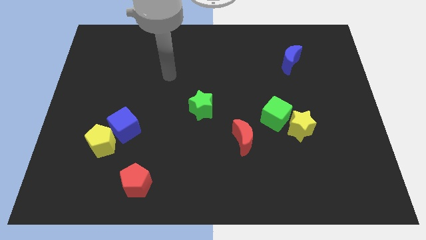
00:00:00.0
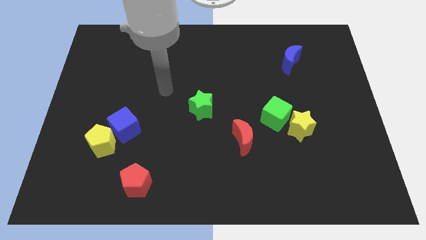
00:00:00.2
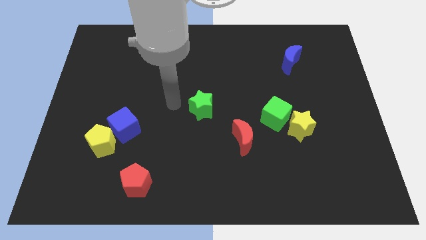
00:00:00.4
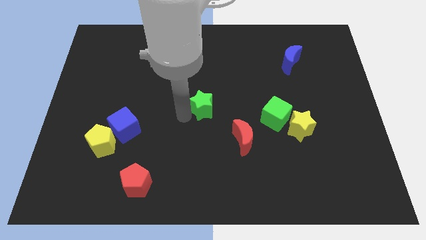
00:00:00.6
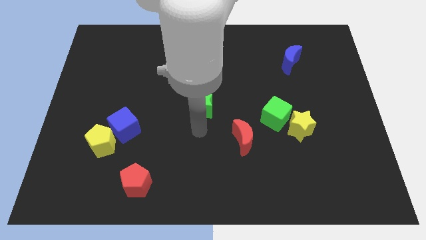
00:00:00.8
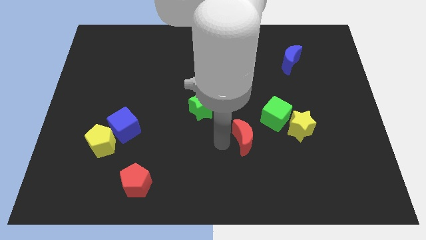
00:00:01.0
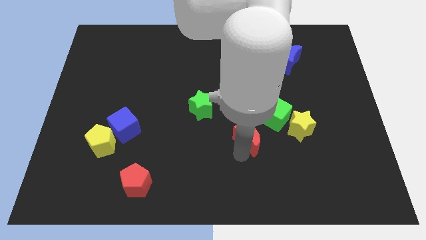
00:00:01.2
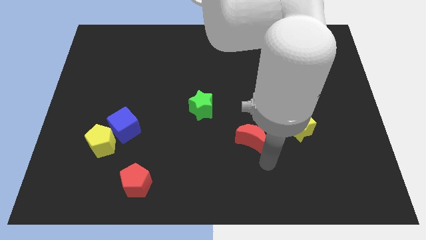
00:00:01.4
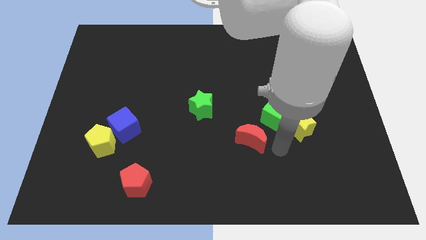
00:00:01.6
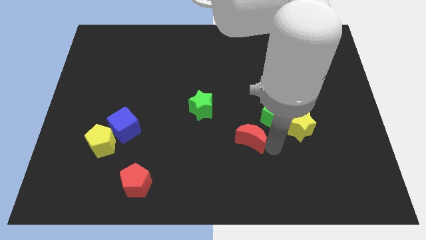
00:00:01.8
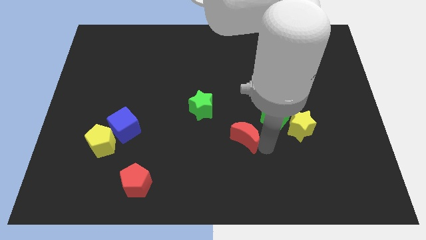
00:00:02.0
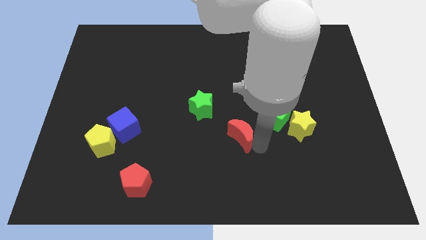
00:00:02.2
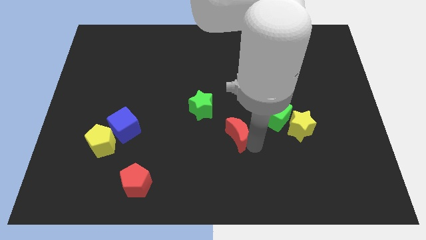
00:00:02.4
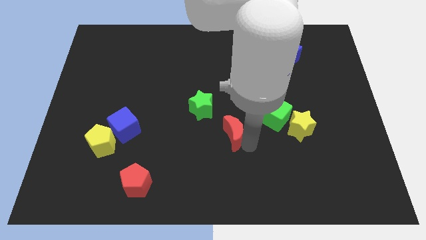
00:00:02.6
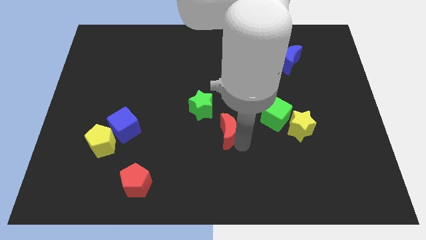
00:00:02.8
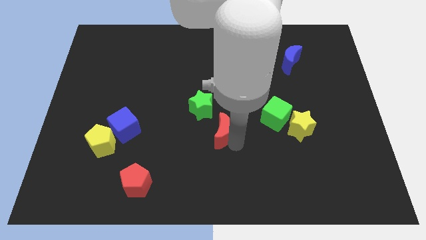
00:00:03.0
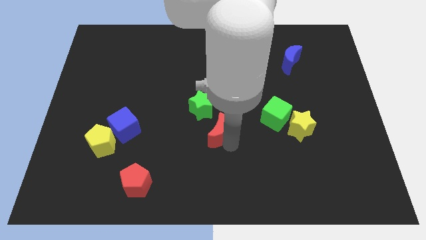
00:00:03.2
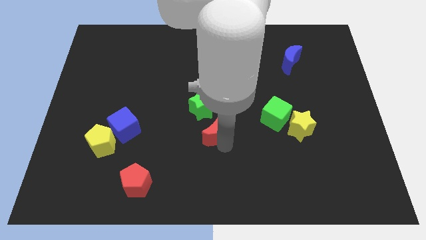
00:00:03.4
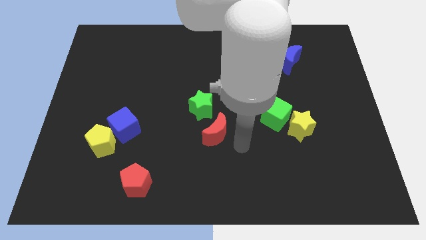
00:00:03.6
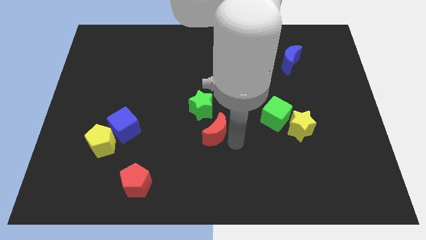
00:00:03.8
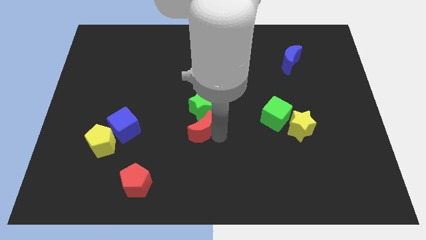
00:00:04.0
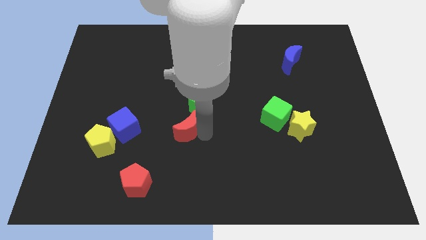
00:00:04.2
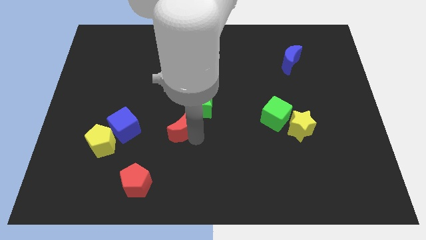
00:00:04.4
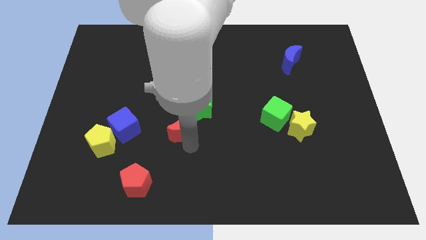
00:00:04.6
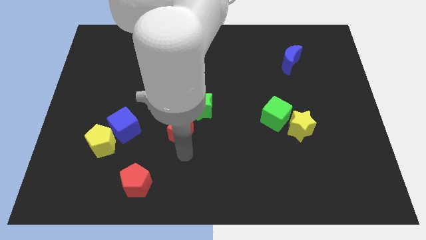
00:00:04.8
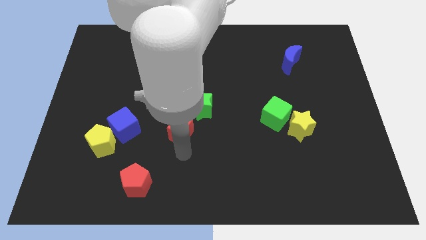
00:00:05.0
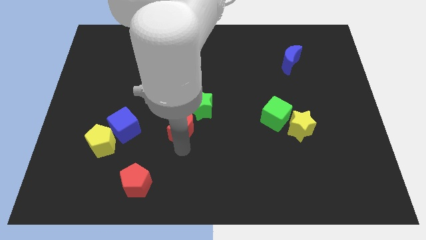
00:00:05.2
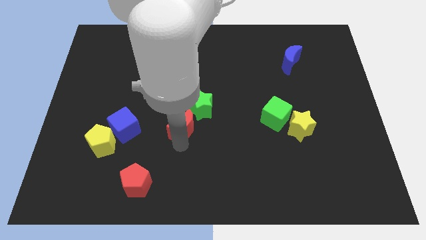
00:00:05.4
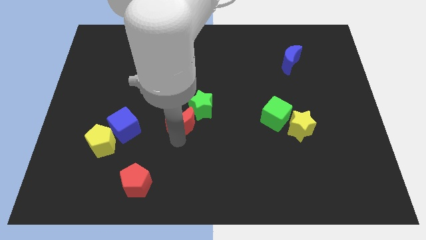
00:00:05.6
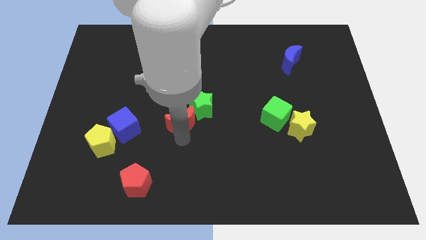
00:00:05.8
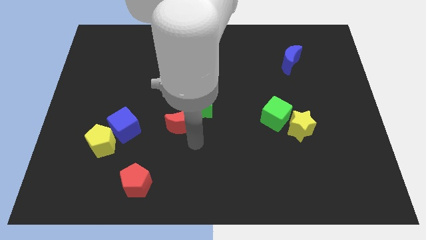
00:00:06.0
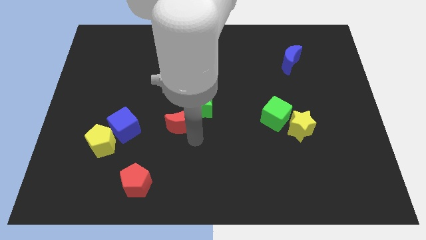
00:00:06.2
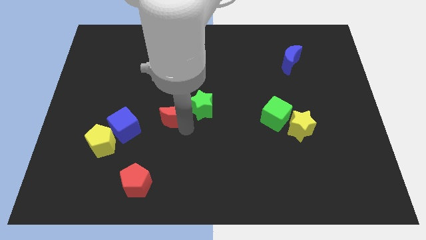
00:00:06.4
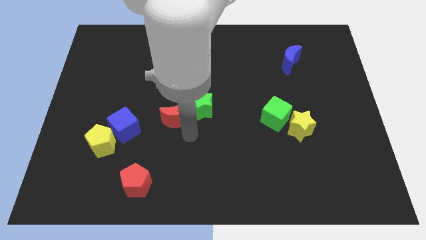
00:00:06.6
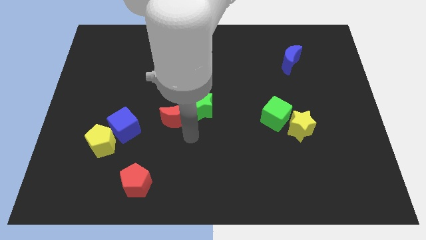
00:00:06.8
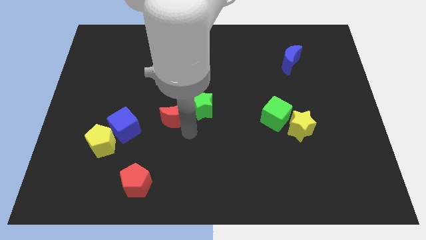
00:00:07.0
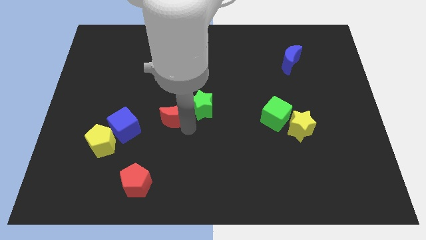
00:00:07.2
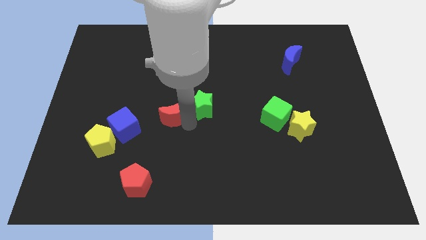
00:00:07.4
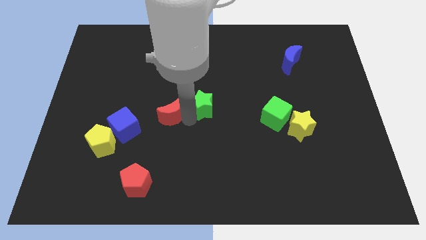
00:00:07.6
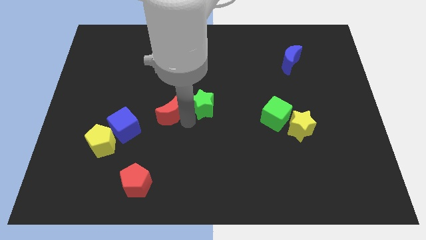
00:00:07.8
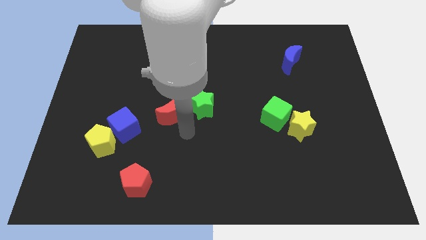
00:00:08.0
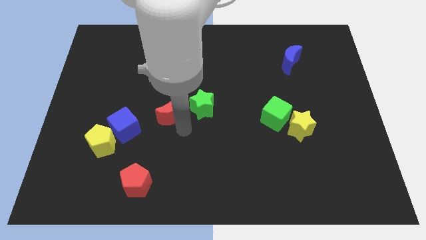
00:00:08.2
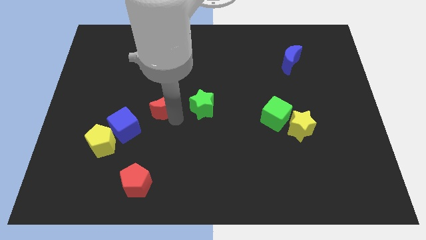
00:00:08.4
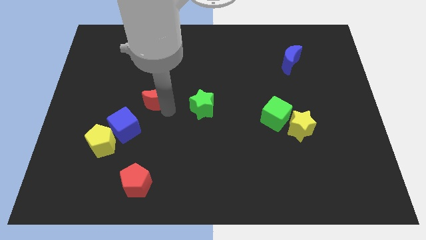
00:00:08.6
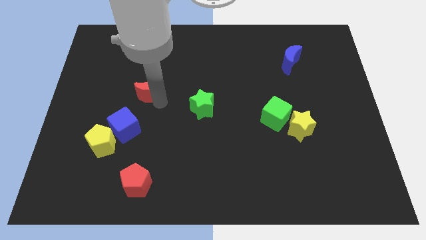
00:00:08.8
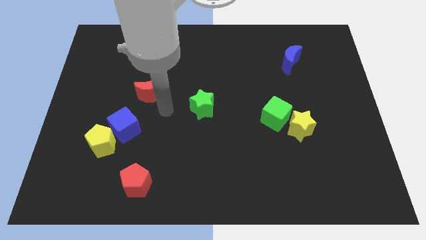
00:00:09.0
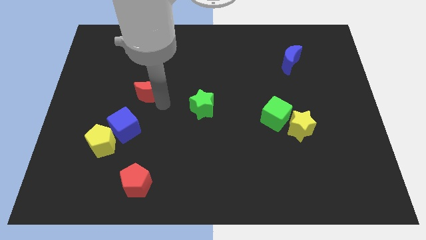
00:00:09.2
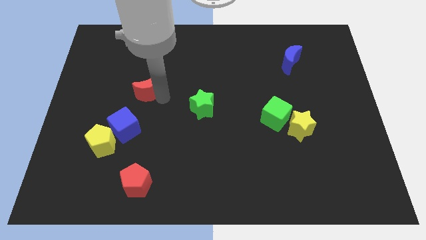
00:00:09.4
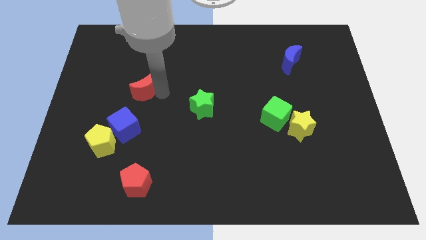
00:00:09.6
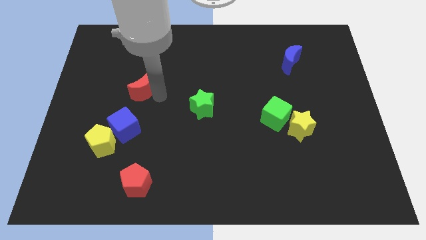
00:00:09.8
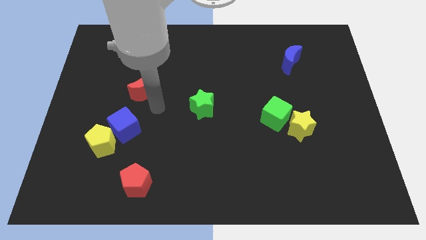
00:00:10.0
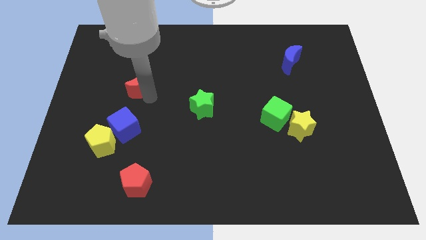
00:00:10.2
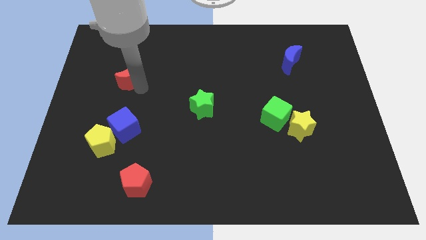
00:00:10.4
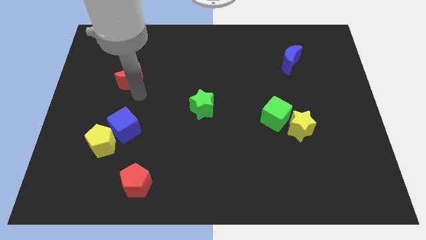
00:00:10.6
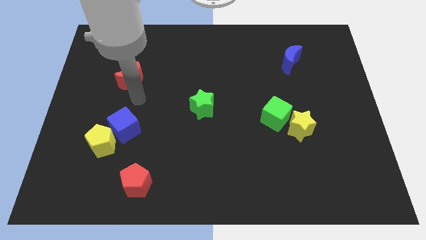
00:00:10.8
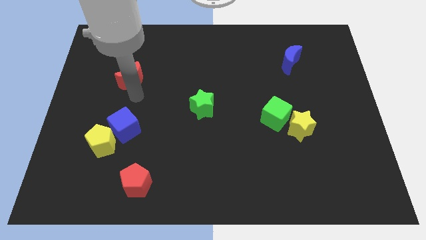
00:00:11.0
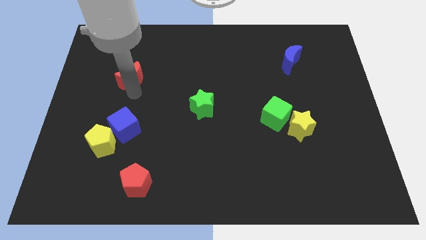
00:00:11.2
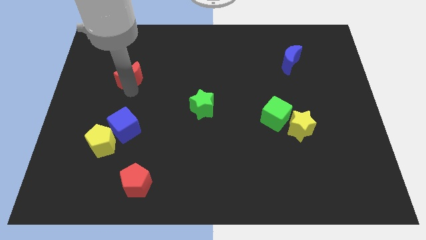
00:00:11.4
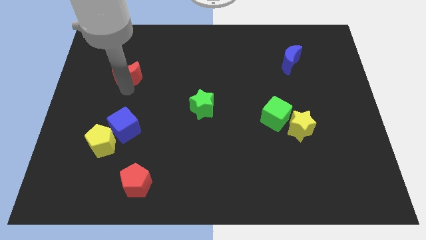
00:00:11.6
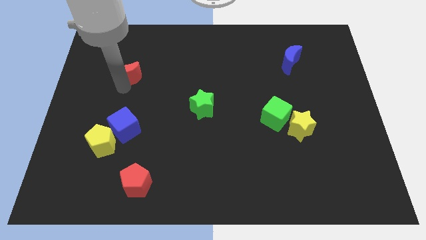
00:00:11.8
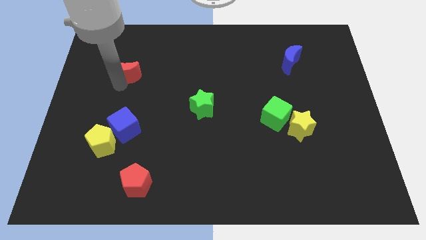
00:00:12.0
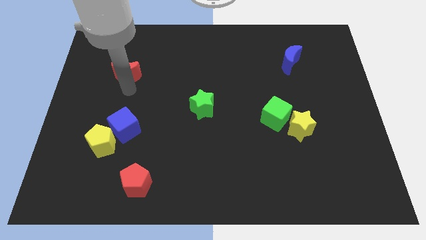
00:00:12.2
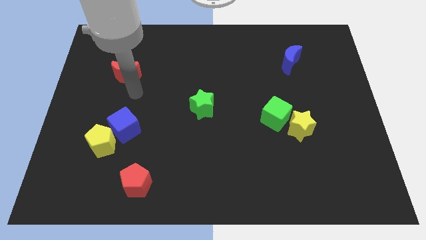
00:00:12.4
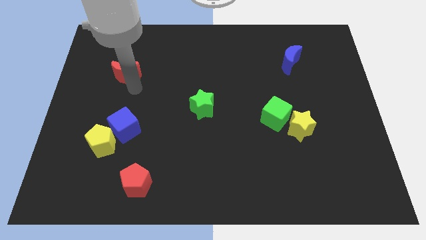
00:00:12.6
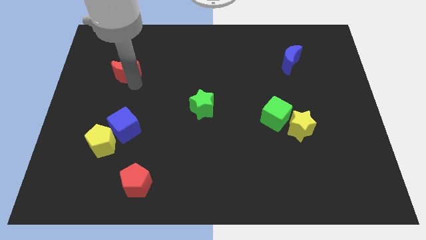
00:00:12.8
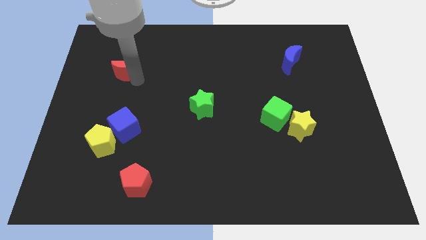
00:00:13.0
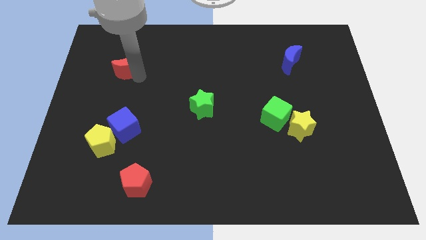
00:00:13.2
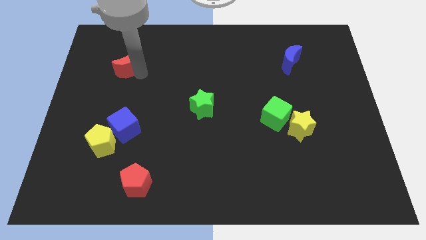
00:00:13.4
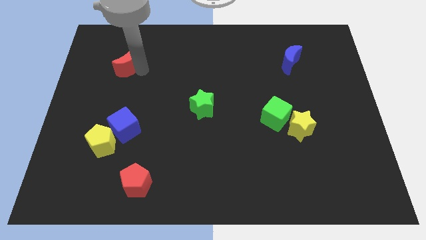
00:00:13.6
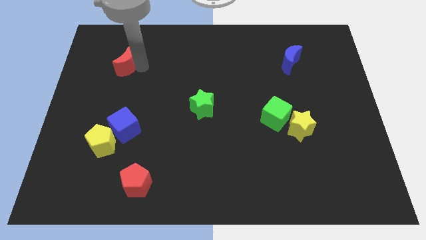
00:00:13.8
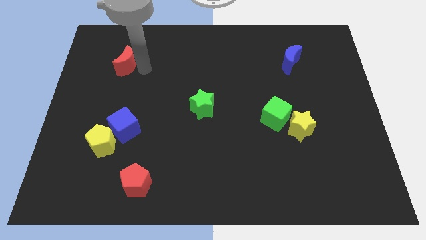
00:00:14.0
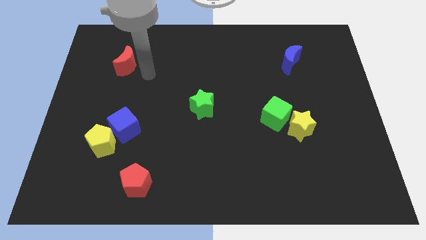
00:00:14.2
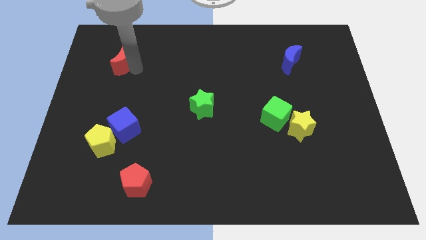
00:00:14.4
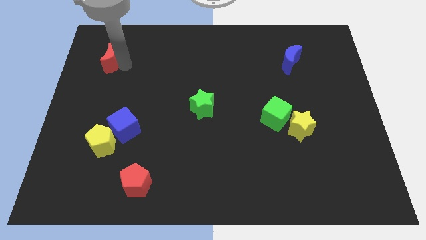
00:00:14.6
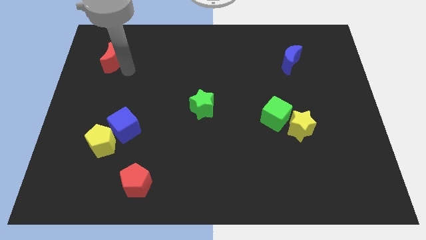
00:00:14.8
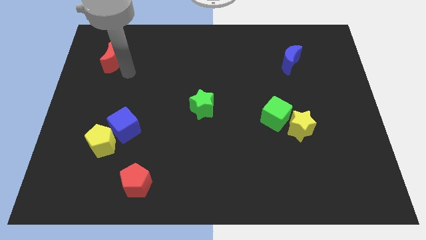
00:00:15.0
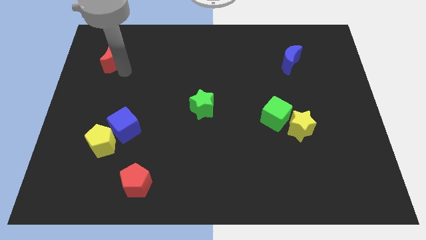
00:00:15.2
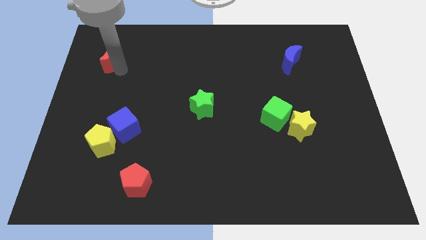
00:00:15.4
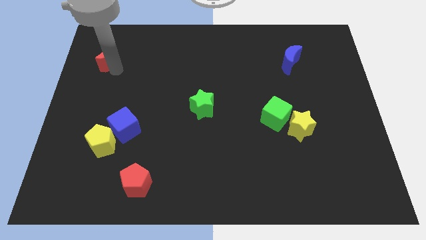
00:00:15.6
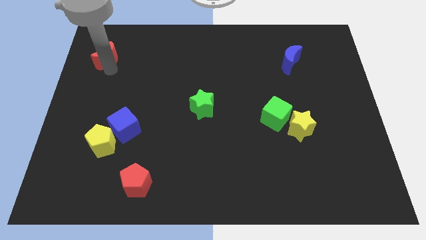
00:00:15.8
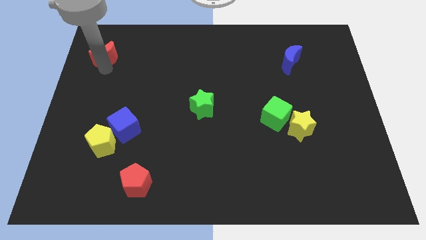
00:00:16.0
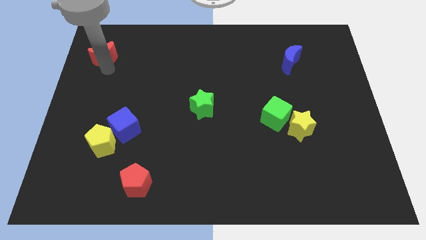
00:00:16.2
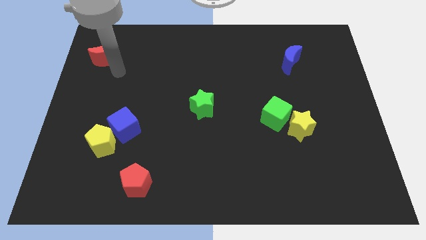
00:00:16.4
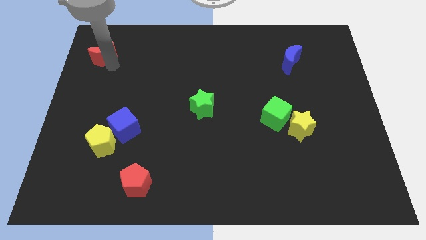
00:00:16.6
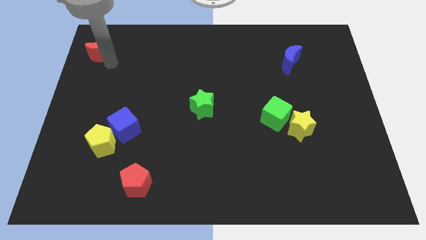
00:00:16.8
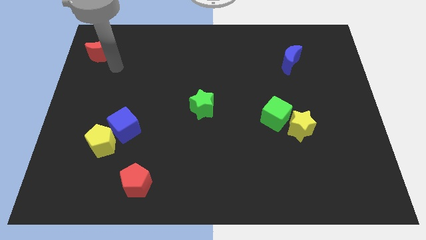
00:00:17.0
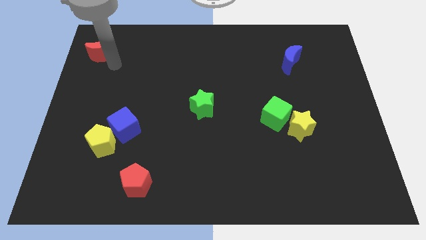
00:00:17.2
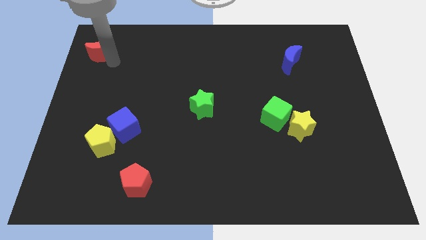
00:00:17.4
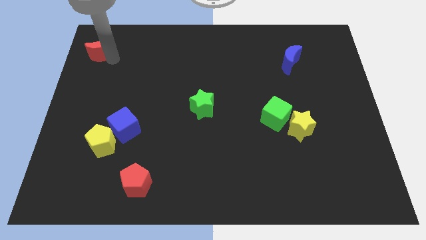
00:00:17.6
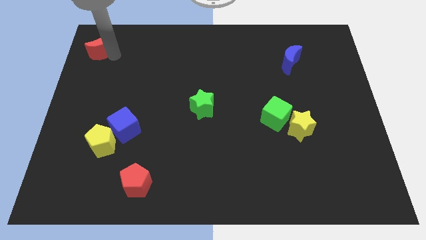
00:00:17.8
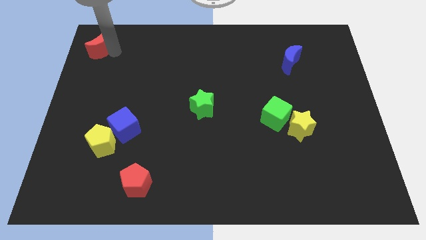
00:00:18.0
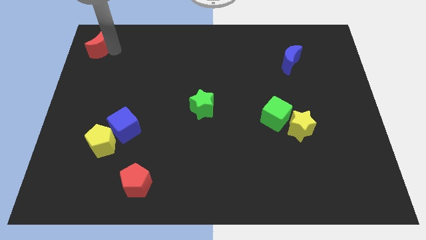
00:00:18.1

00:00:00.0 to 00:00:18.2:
move the red moon to the top left of the board
